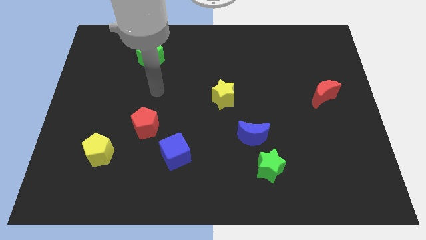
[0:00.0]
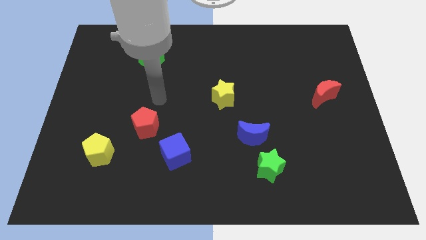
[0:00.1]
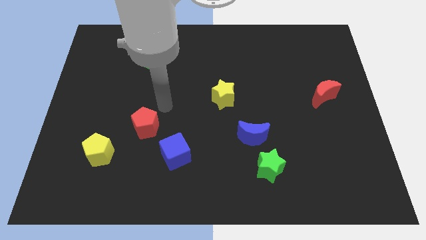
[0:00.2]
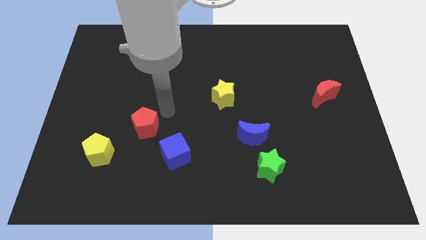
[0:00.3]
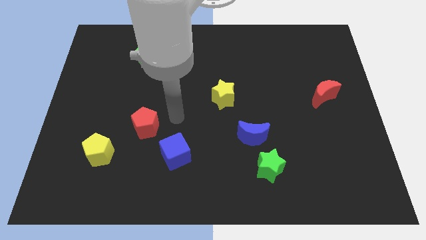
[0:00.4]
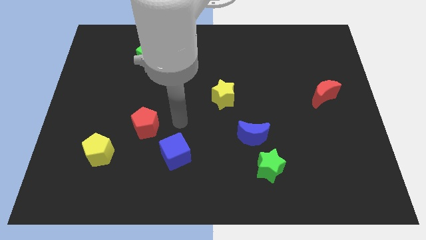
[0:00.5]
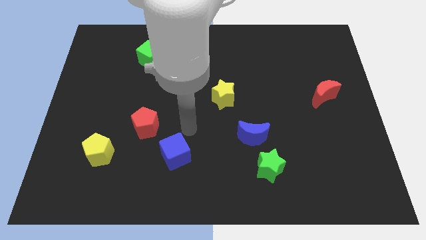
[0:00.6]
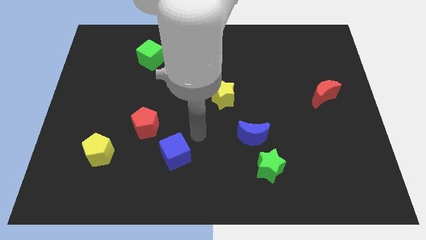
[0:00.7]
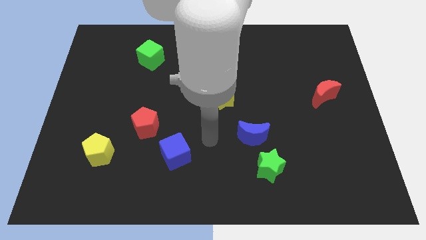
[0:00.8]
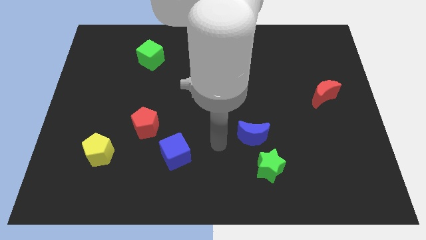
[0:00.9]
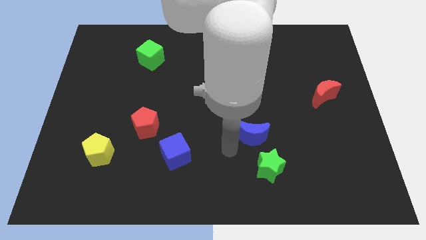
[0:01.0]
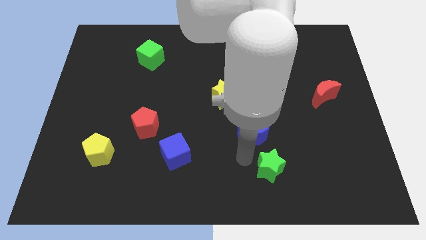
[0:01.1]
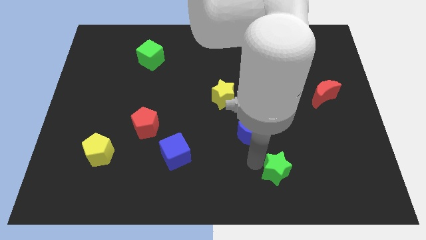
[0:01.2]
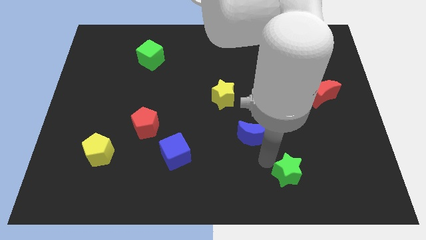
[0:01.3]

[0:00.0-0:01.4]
separate the blue moon from the green star

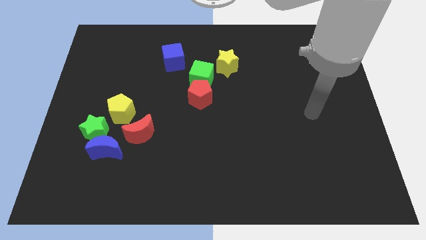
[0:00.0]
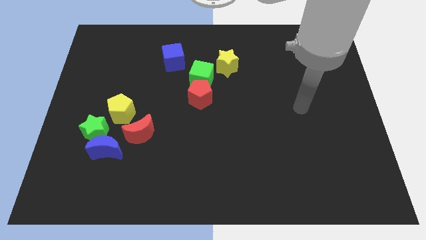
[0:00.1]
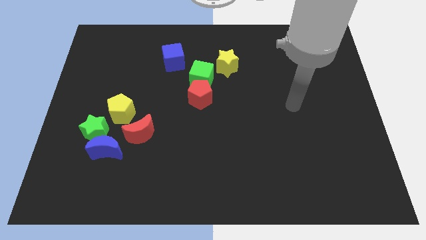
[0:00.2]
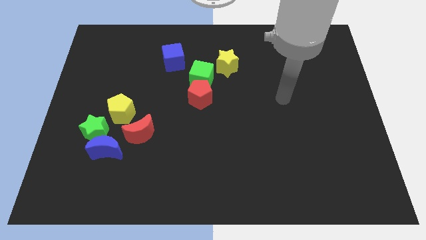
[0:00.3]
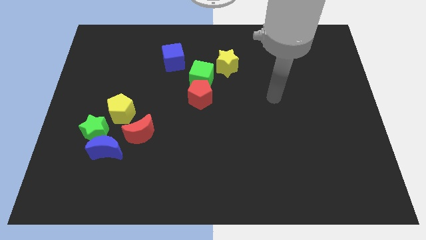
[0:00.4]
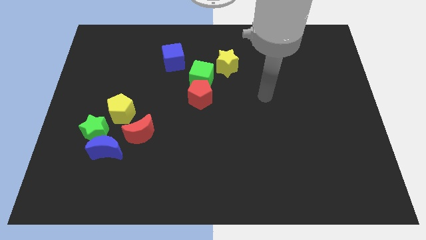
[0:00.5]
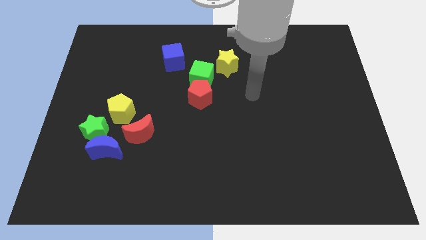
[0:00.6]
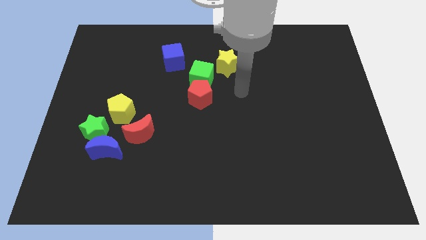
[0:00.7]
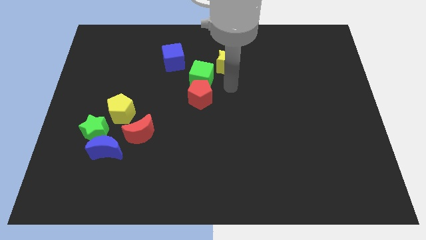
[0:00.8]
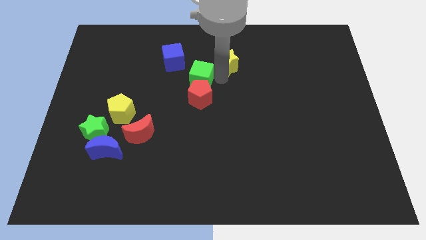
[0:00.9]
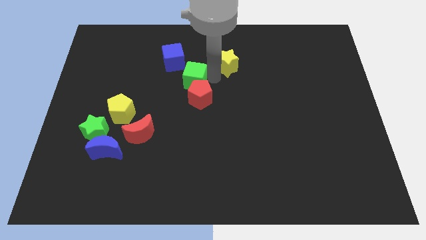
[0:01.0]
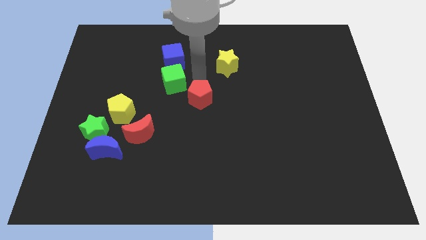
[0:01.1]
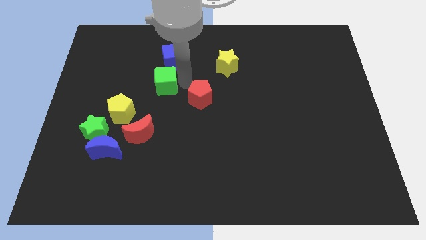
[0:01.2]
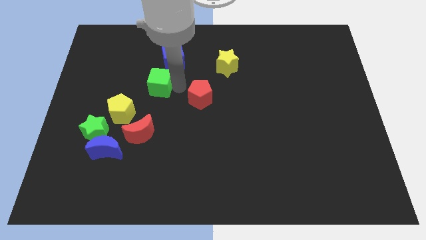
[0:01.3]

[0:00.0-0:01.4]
pull the red pentagon apart from the green cube

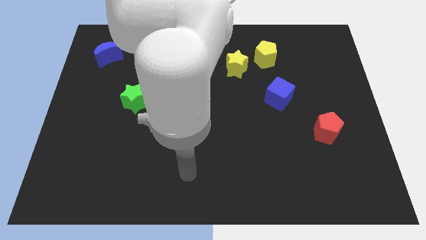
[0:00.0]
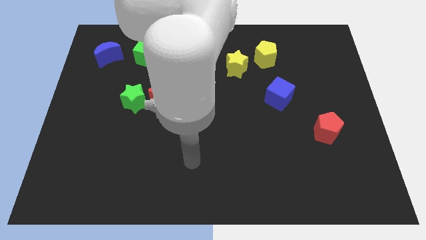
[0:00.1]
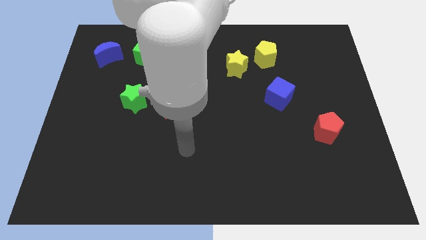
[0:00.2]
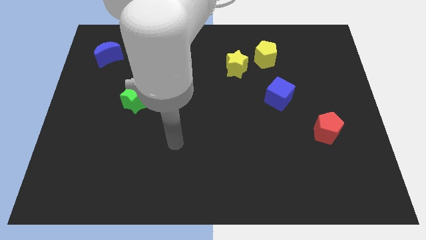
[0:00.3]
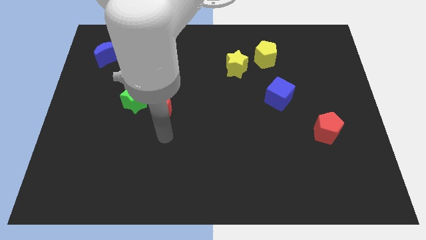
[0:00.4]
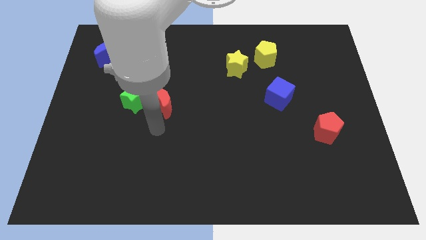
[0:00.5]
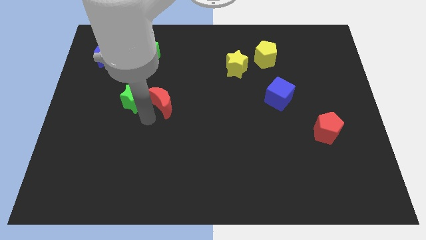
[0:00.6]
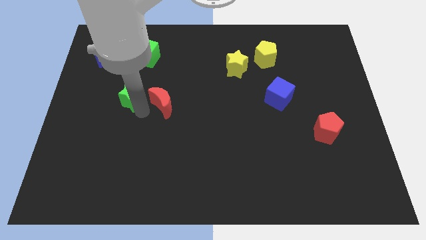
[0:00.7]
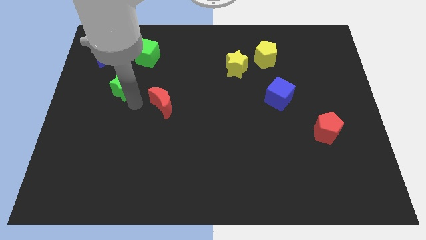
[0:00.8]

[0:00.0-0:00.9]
move the red moon away from the green star

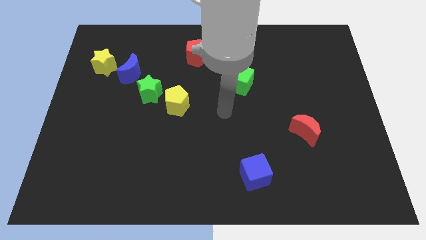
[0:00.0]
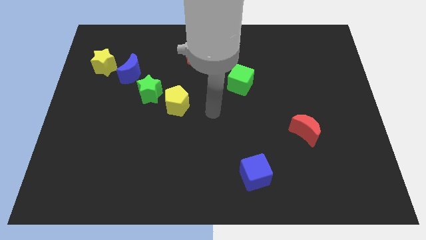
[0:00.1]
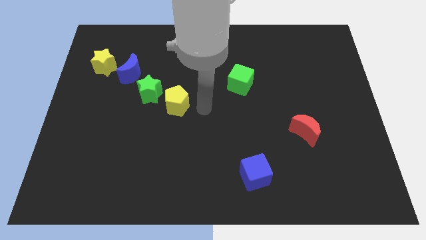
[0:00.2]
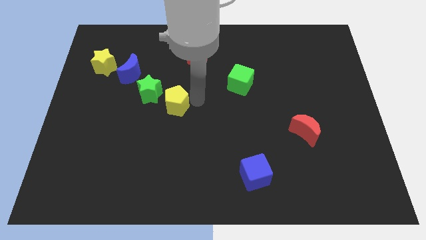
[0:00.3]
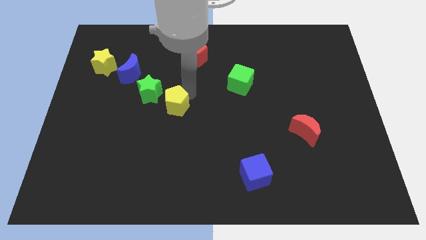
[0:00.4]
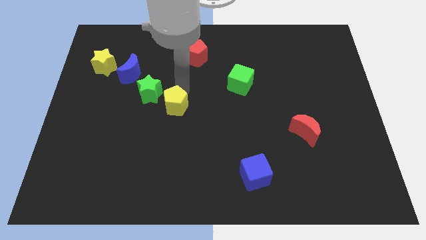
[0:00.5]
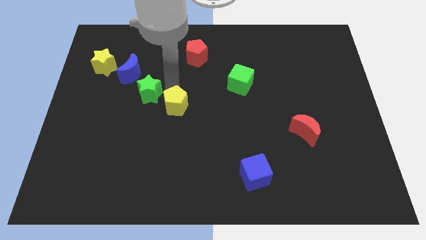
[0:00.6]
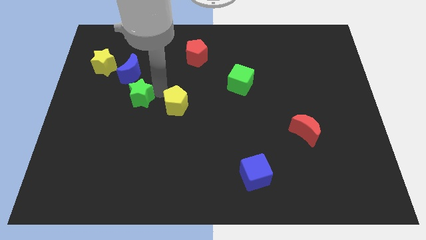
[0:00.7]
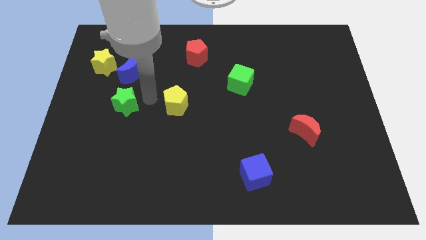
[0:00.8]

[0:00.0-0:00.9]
separate the yellow pentagon from the green star

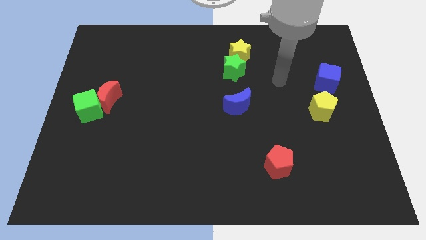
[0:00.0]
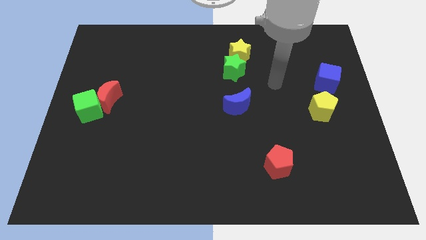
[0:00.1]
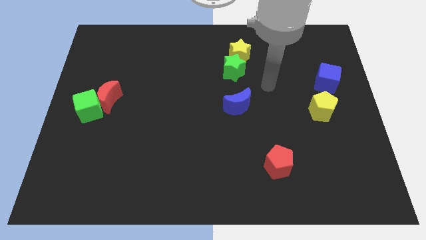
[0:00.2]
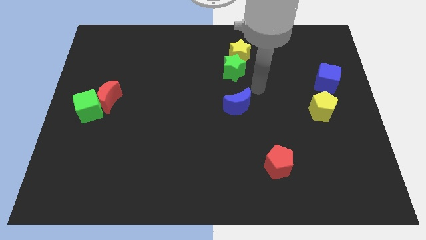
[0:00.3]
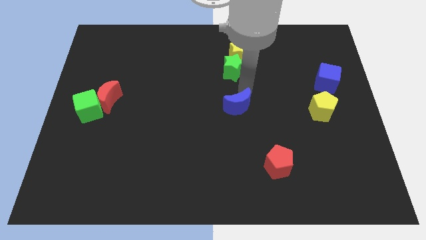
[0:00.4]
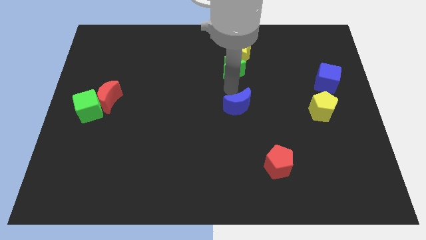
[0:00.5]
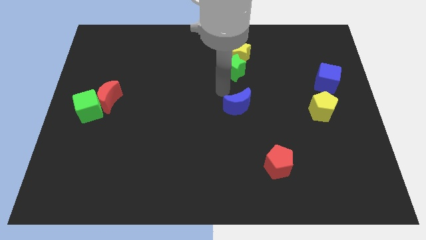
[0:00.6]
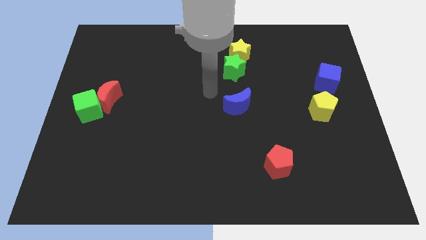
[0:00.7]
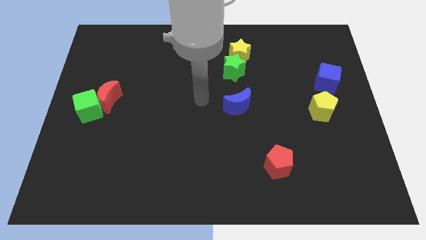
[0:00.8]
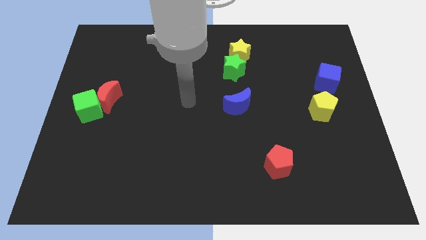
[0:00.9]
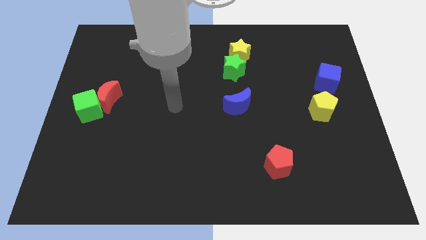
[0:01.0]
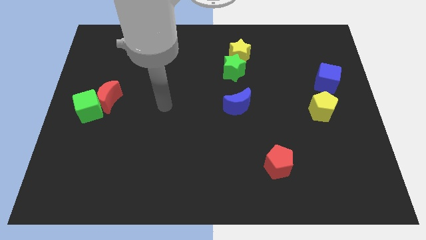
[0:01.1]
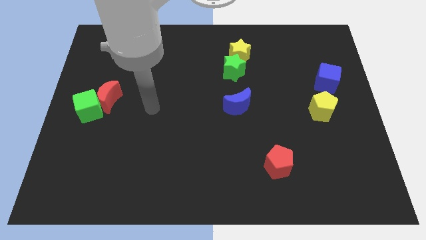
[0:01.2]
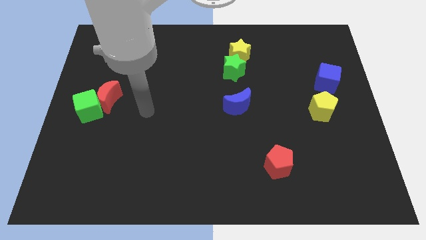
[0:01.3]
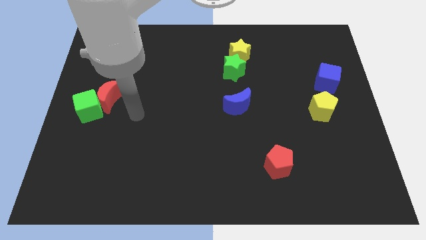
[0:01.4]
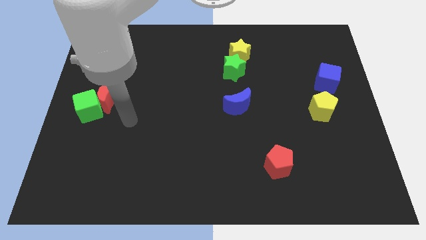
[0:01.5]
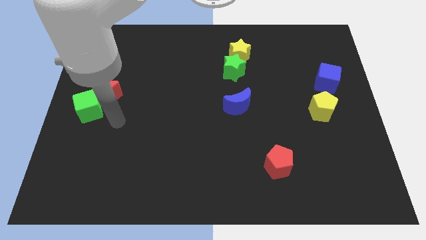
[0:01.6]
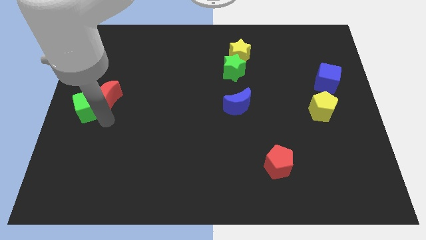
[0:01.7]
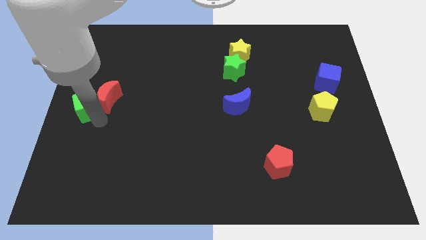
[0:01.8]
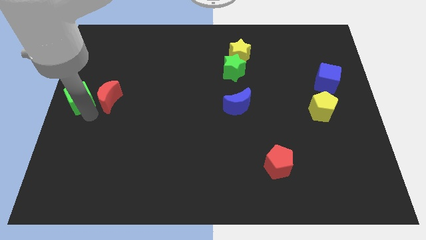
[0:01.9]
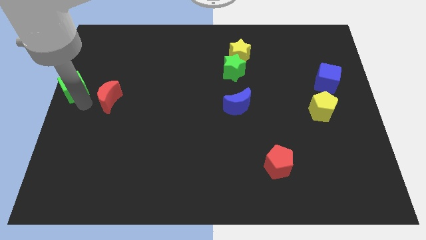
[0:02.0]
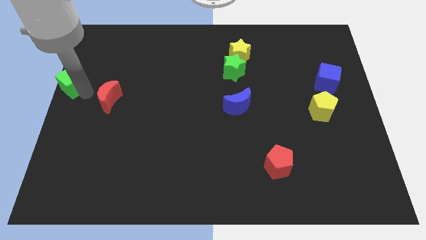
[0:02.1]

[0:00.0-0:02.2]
separate the red moon from the green cube

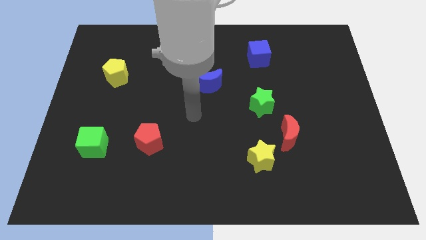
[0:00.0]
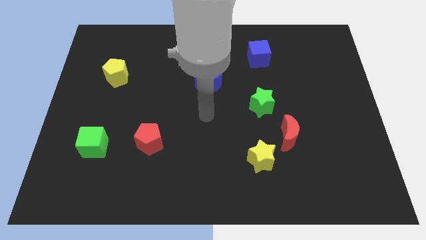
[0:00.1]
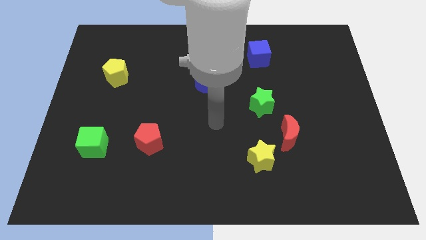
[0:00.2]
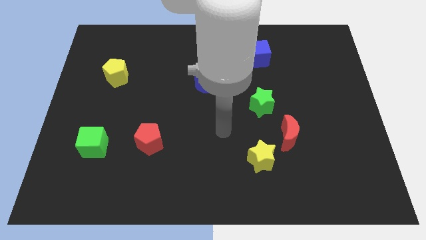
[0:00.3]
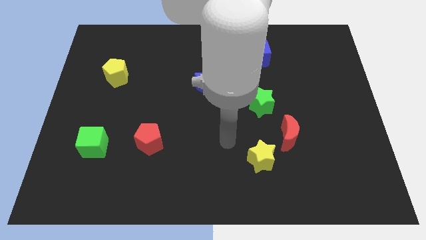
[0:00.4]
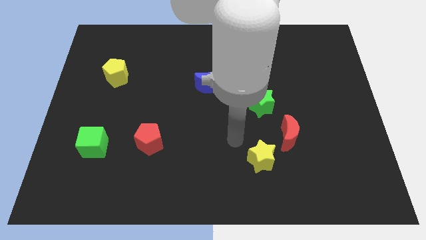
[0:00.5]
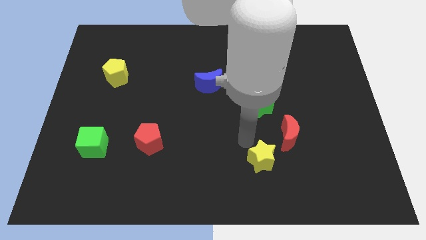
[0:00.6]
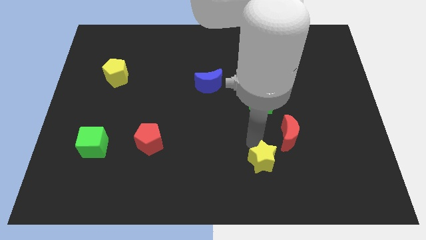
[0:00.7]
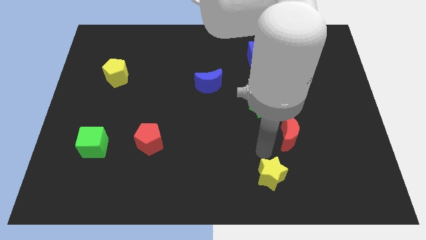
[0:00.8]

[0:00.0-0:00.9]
move the red moon away from the yellow star

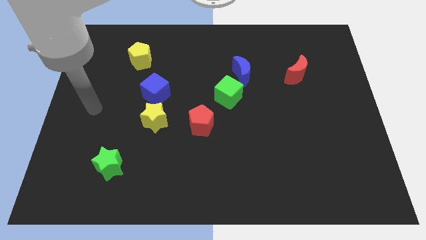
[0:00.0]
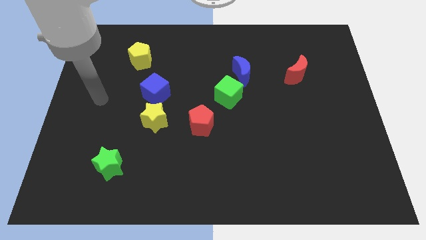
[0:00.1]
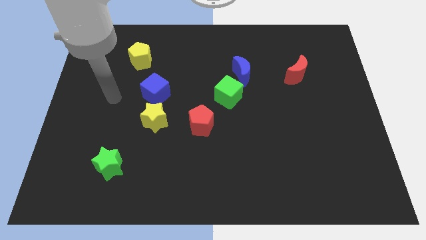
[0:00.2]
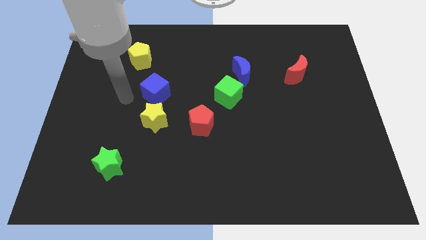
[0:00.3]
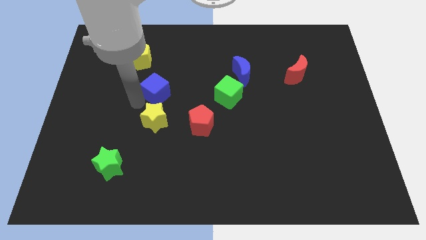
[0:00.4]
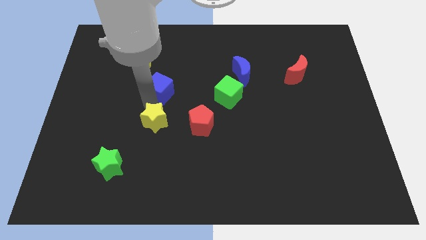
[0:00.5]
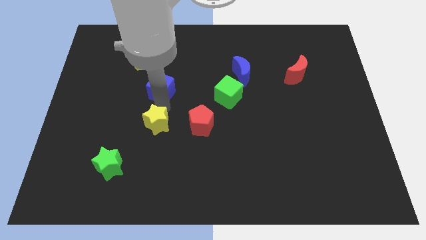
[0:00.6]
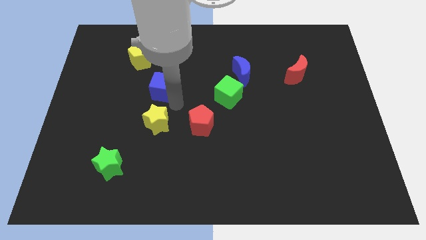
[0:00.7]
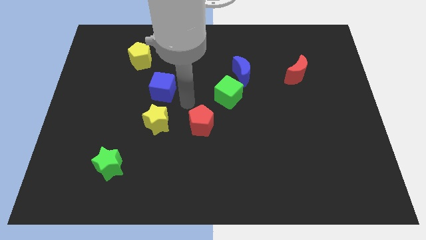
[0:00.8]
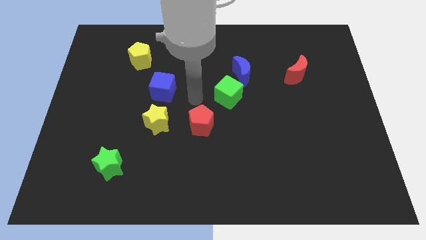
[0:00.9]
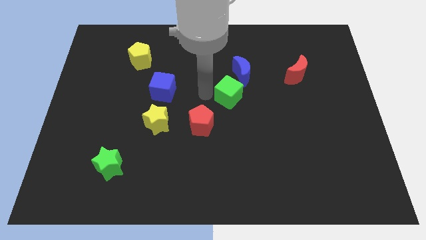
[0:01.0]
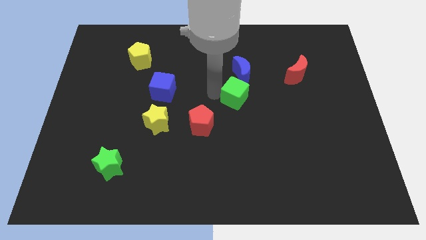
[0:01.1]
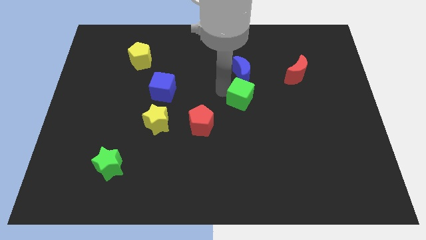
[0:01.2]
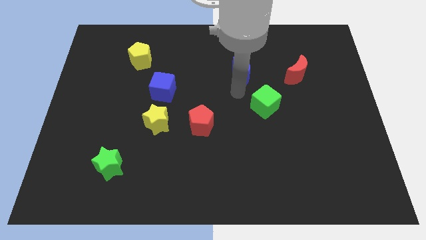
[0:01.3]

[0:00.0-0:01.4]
pull the blue moon apart from the green cube

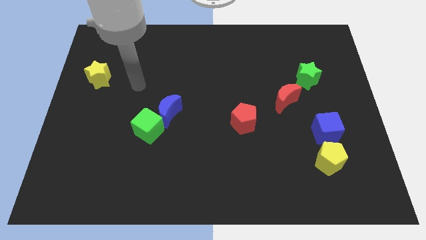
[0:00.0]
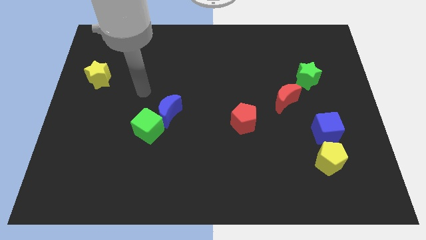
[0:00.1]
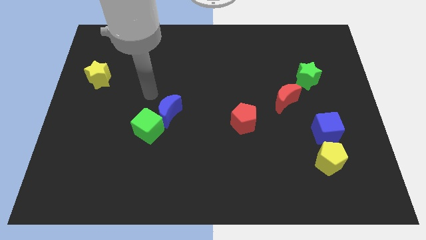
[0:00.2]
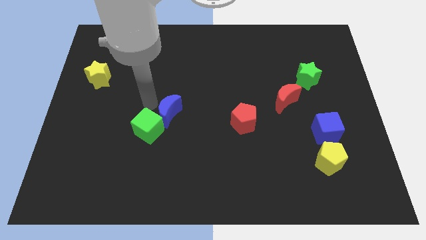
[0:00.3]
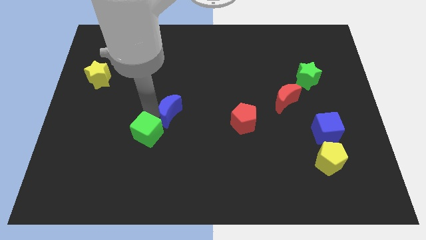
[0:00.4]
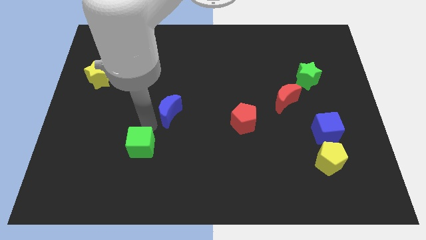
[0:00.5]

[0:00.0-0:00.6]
move the blue moon away from the green cube
